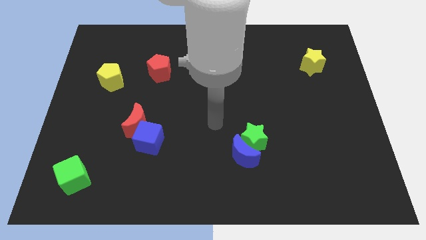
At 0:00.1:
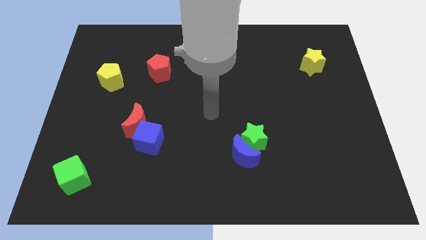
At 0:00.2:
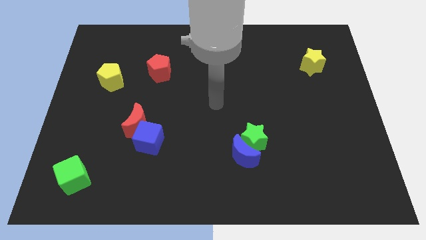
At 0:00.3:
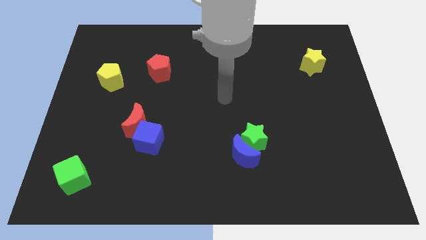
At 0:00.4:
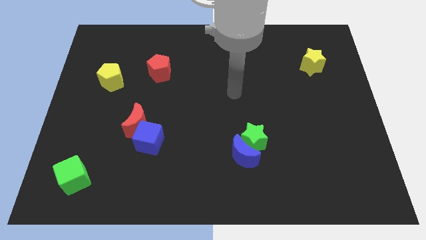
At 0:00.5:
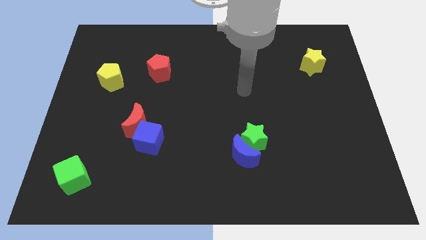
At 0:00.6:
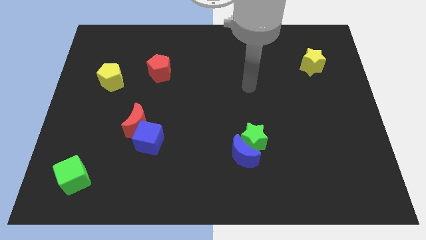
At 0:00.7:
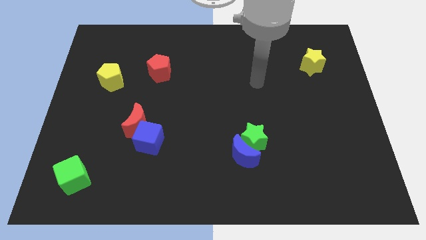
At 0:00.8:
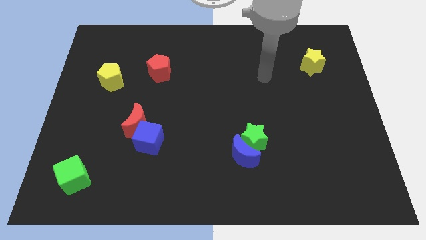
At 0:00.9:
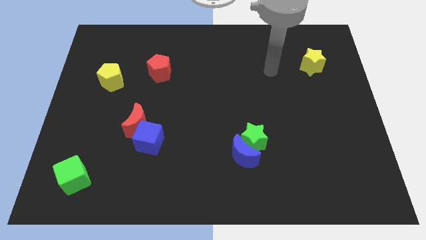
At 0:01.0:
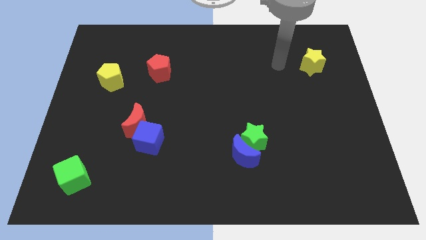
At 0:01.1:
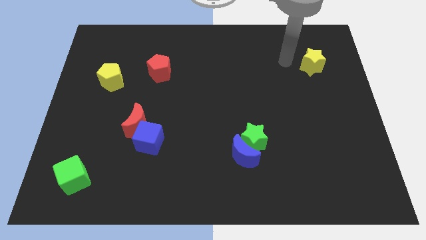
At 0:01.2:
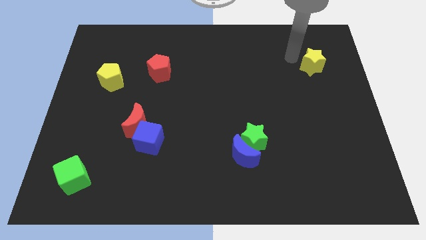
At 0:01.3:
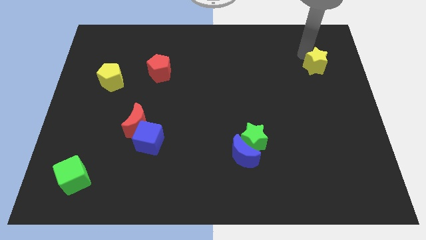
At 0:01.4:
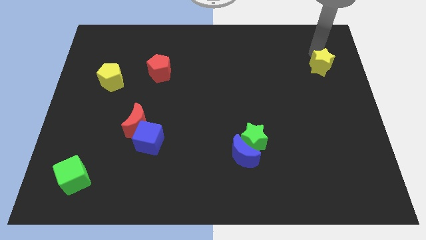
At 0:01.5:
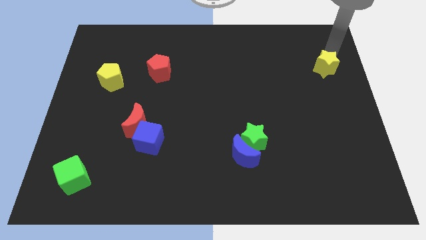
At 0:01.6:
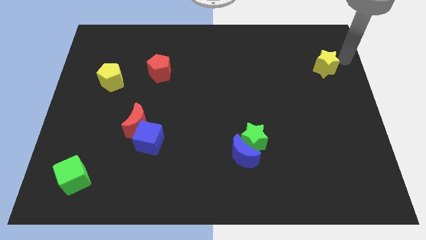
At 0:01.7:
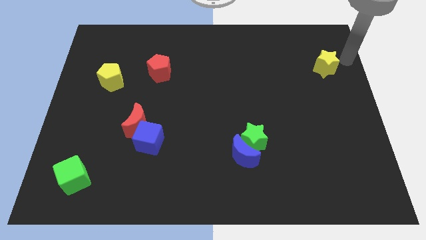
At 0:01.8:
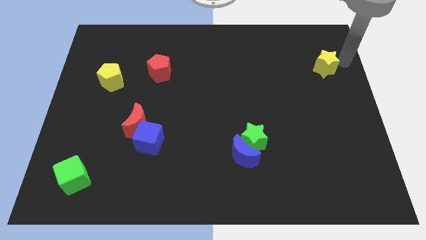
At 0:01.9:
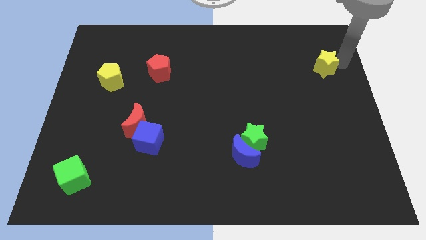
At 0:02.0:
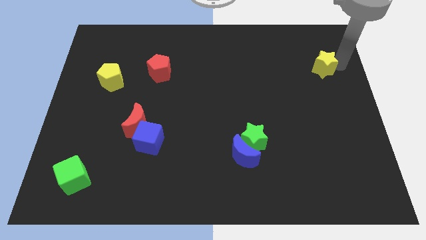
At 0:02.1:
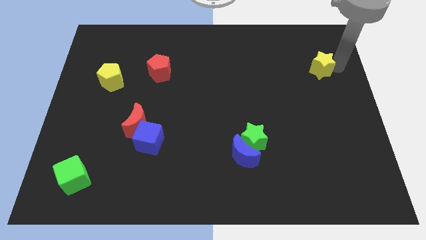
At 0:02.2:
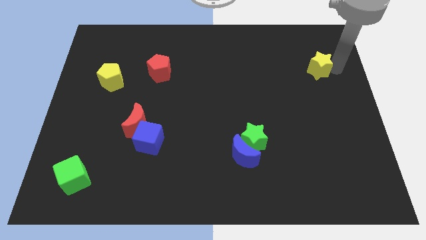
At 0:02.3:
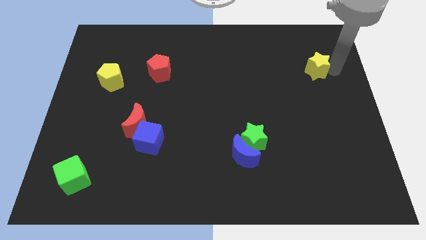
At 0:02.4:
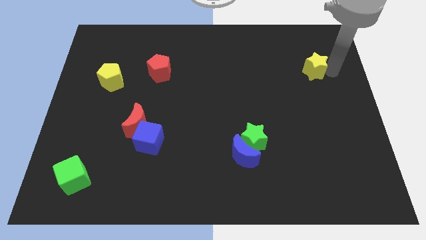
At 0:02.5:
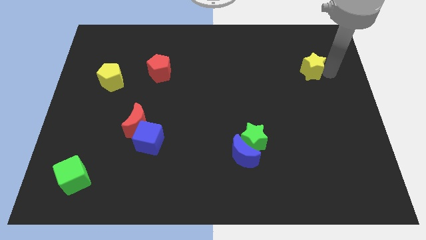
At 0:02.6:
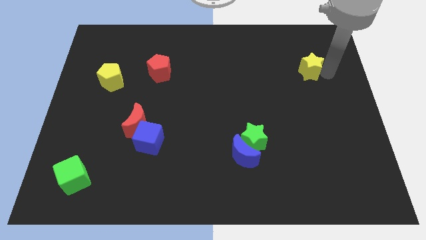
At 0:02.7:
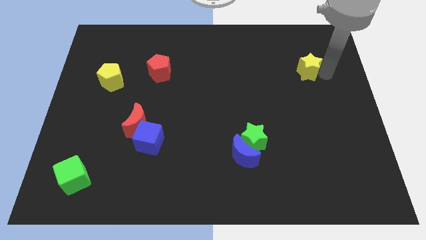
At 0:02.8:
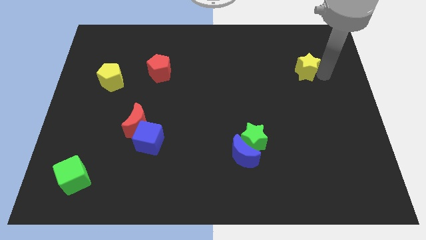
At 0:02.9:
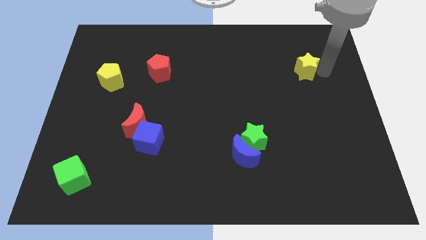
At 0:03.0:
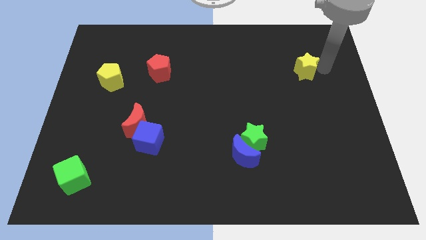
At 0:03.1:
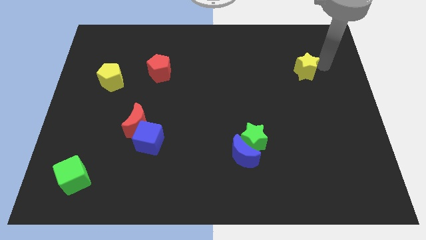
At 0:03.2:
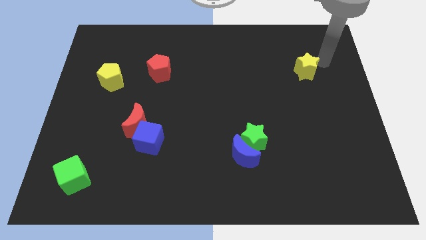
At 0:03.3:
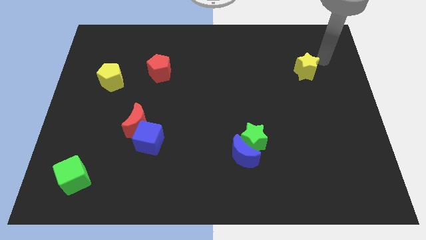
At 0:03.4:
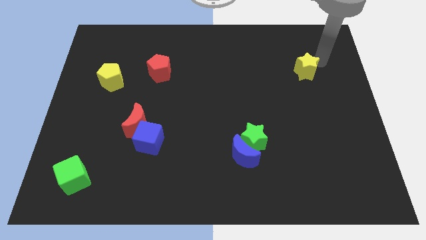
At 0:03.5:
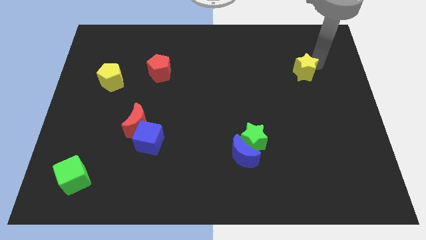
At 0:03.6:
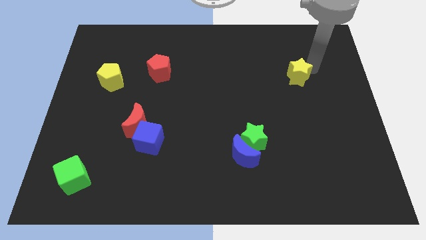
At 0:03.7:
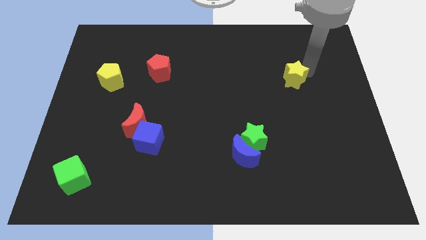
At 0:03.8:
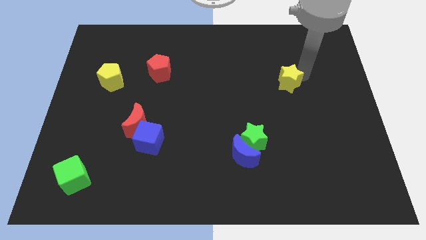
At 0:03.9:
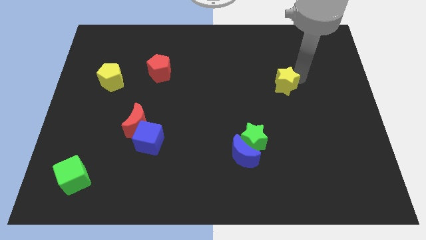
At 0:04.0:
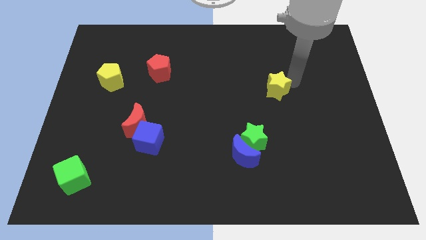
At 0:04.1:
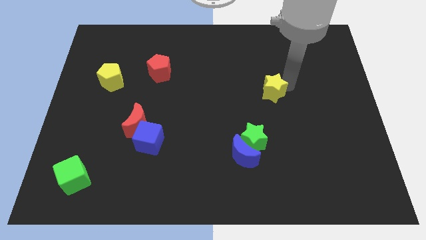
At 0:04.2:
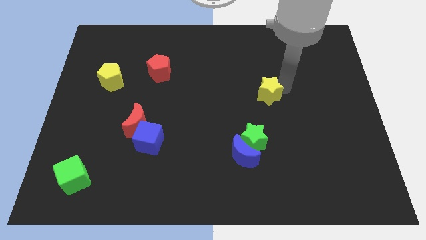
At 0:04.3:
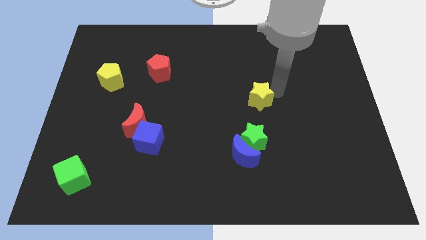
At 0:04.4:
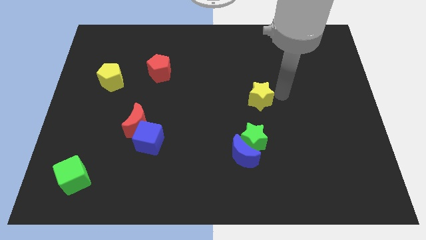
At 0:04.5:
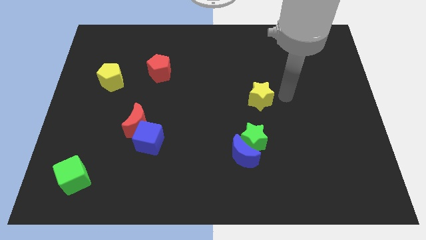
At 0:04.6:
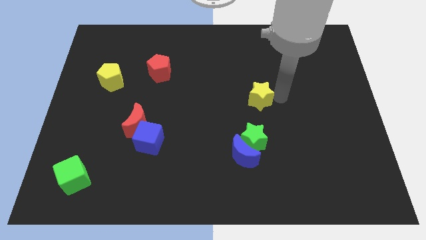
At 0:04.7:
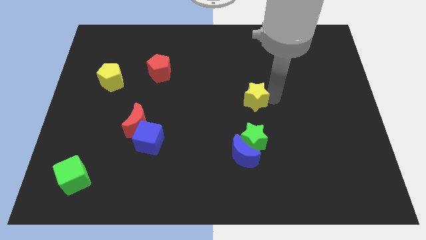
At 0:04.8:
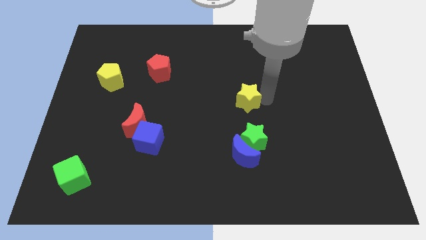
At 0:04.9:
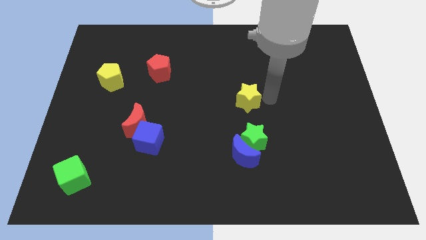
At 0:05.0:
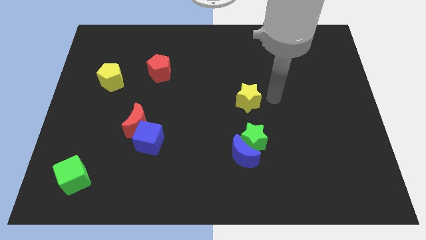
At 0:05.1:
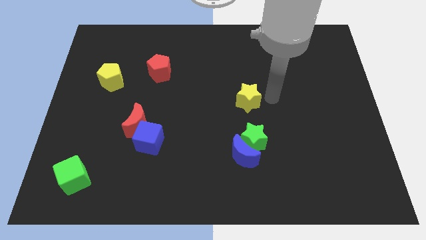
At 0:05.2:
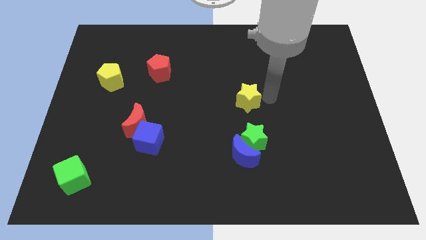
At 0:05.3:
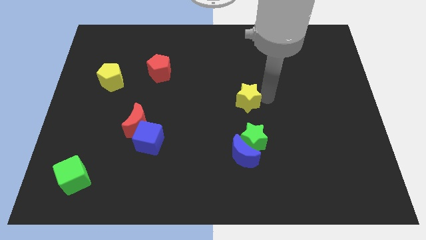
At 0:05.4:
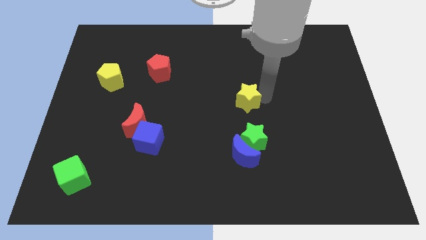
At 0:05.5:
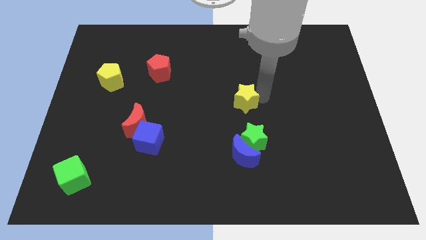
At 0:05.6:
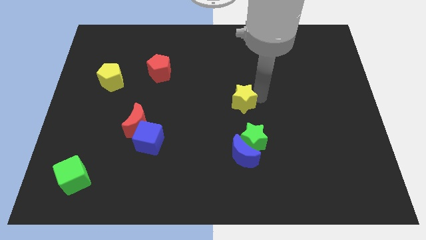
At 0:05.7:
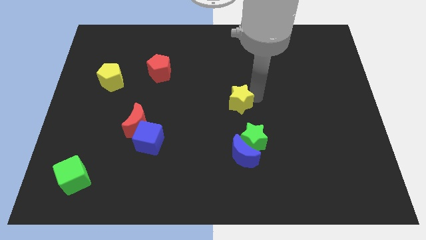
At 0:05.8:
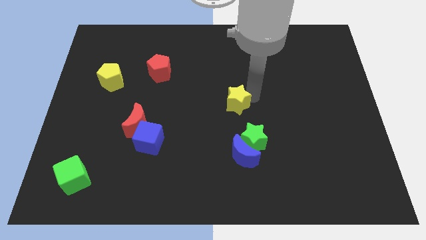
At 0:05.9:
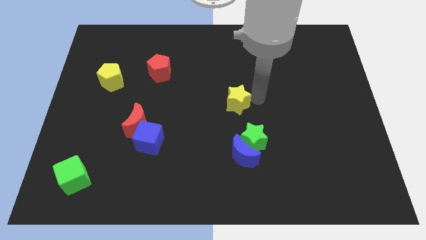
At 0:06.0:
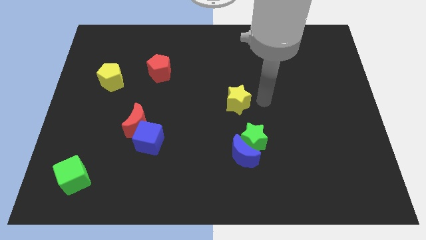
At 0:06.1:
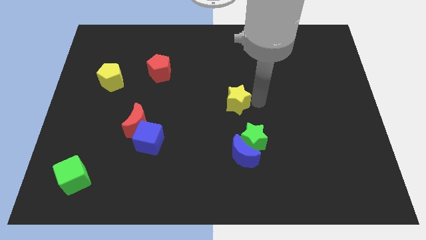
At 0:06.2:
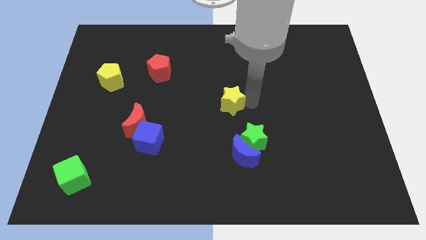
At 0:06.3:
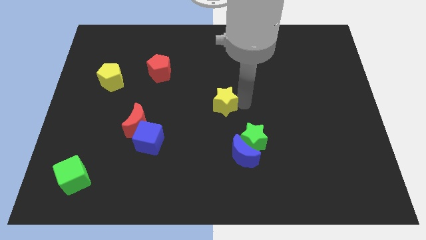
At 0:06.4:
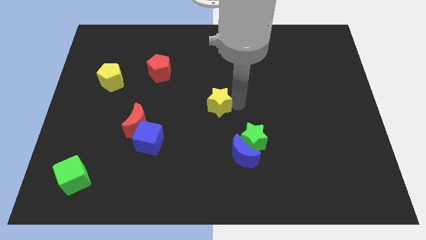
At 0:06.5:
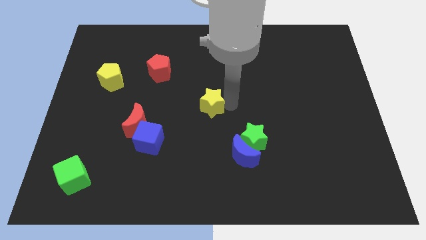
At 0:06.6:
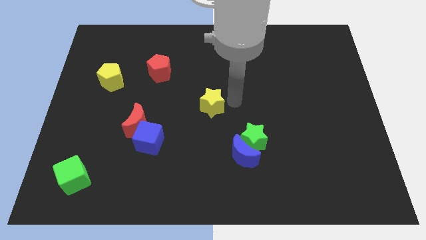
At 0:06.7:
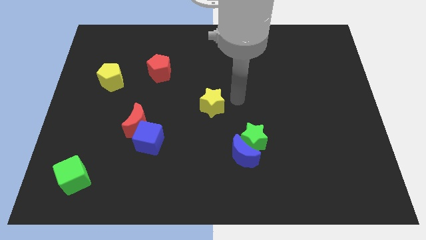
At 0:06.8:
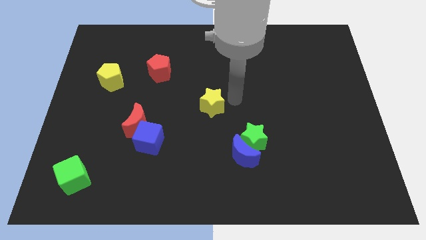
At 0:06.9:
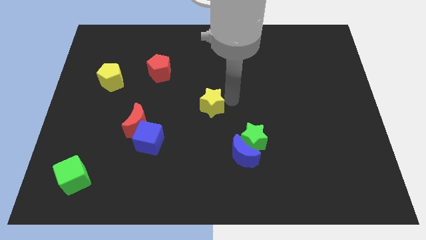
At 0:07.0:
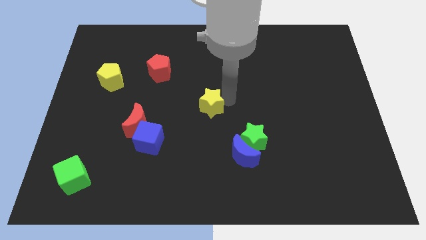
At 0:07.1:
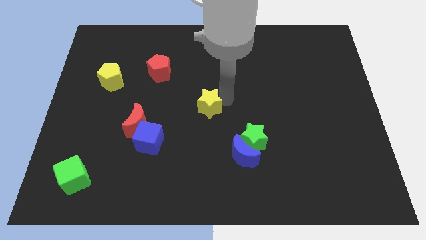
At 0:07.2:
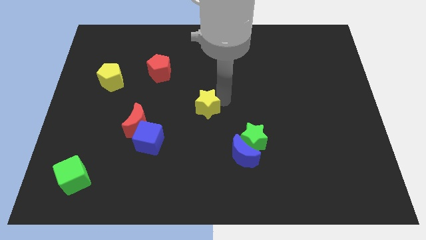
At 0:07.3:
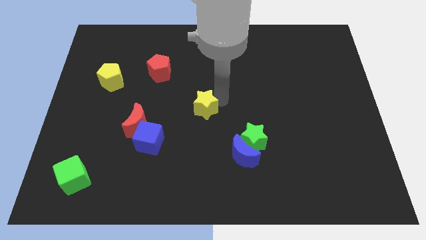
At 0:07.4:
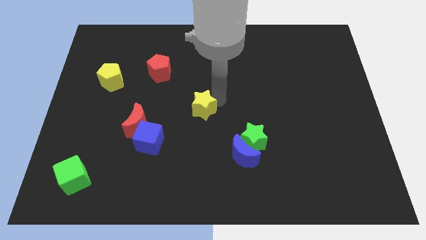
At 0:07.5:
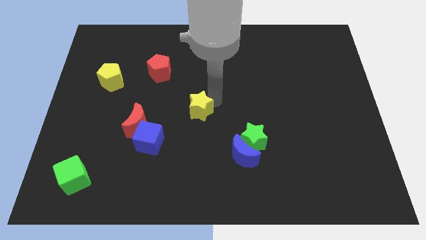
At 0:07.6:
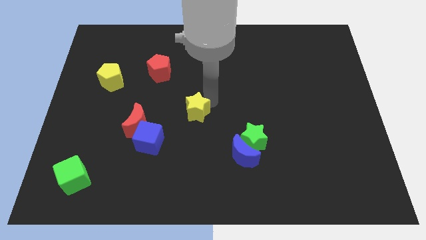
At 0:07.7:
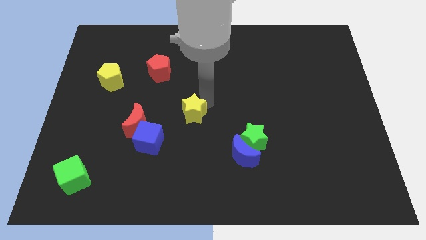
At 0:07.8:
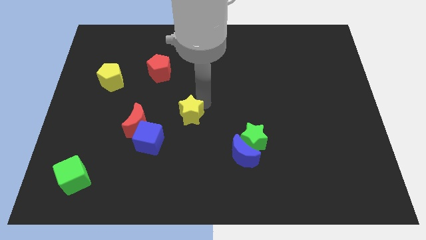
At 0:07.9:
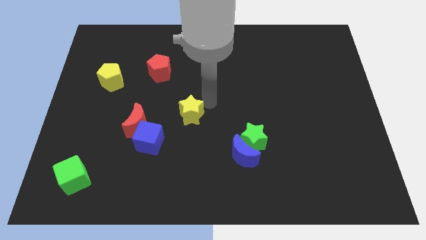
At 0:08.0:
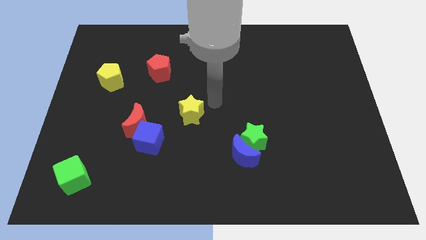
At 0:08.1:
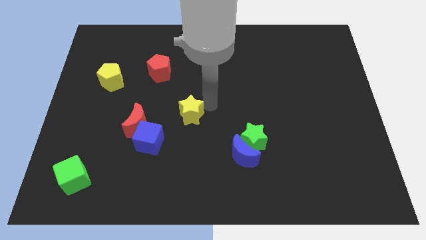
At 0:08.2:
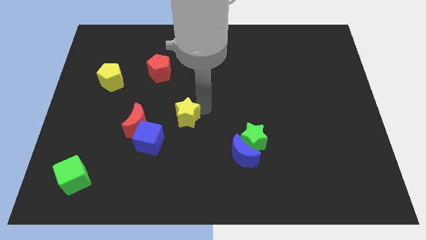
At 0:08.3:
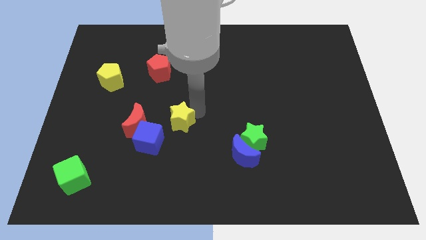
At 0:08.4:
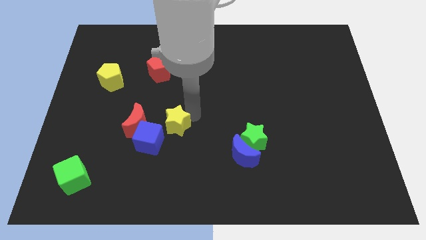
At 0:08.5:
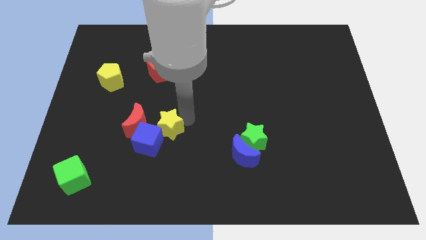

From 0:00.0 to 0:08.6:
put the yellow star to the blue cube
